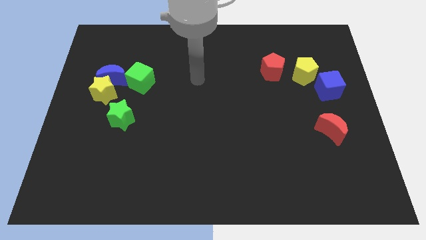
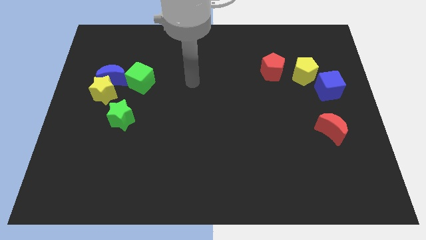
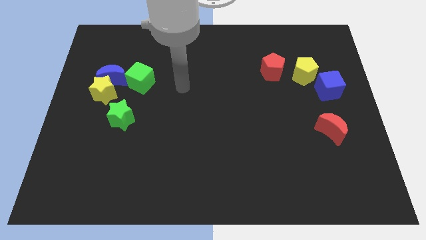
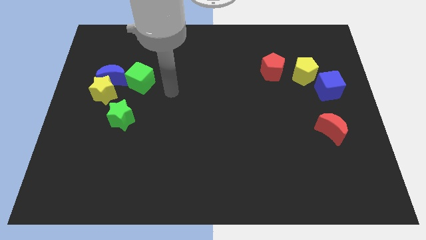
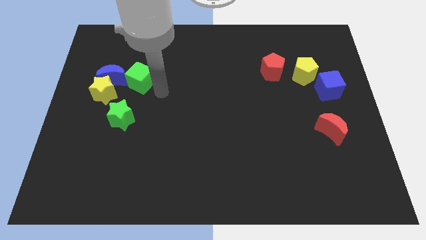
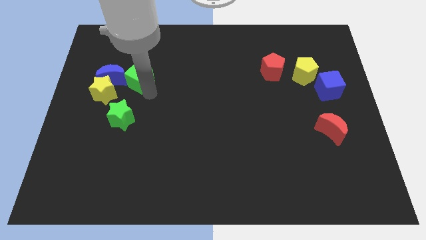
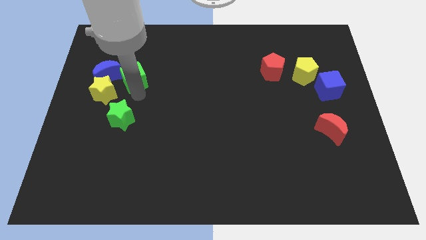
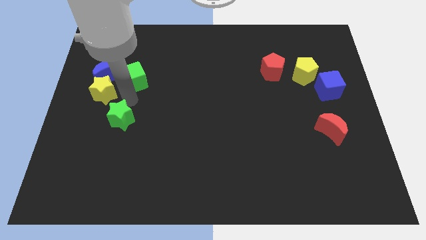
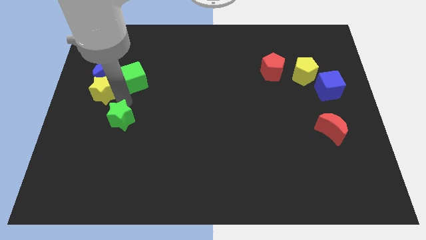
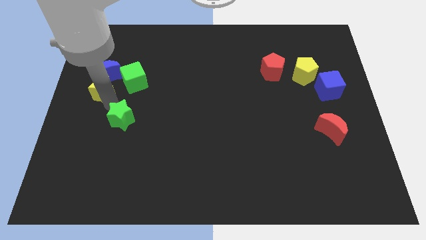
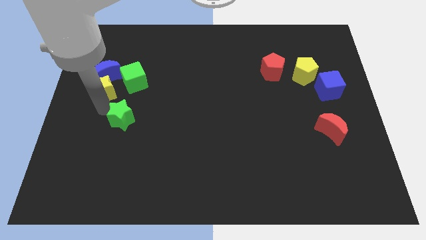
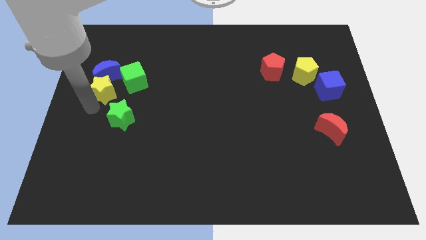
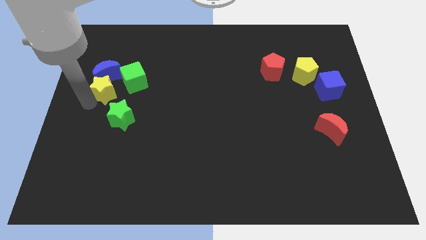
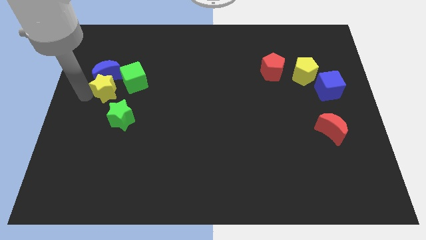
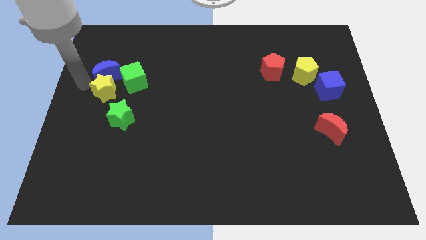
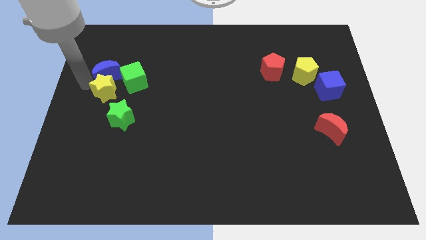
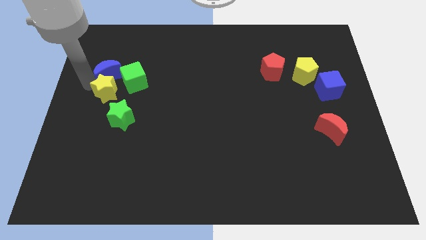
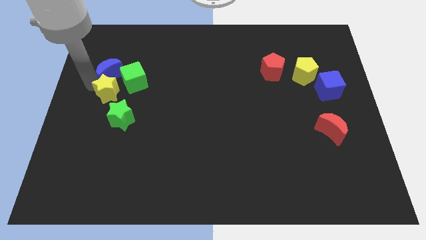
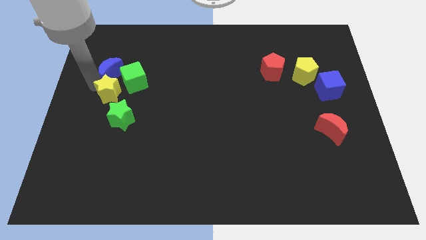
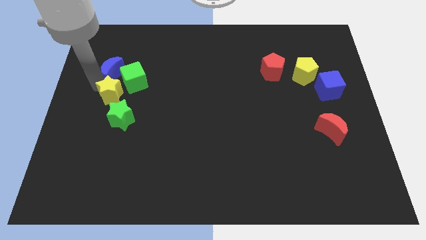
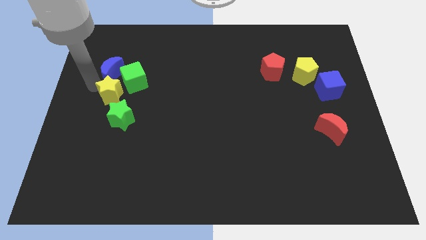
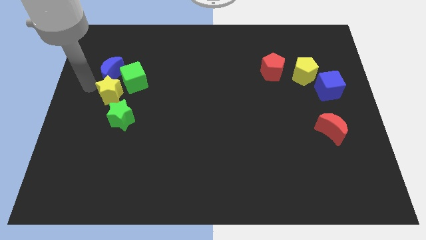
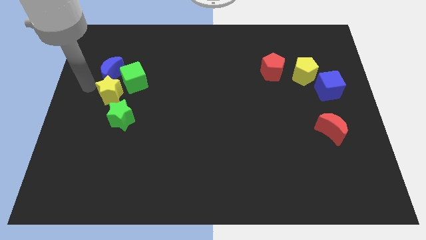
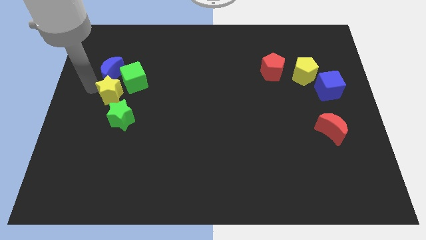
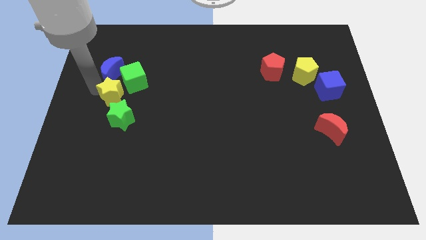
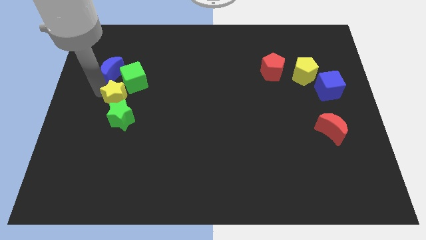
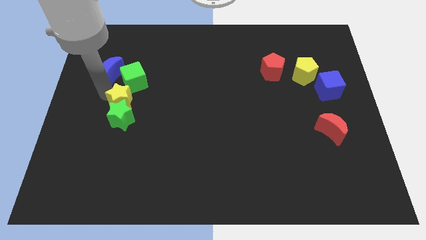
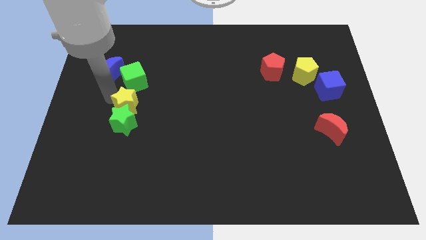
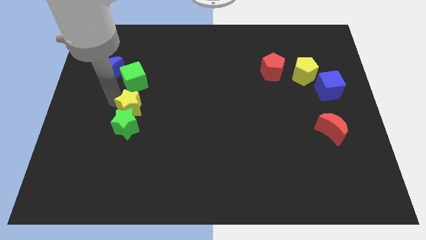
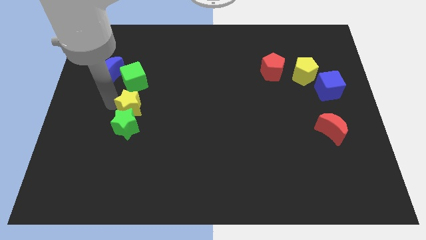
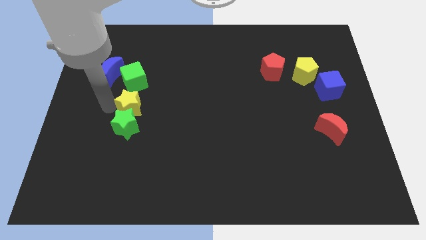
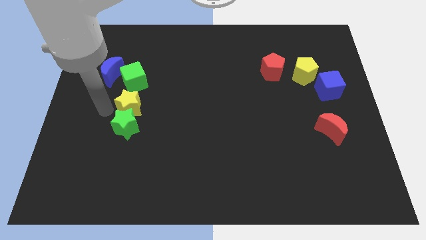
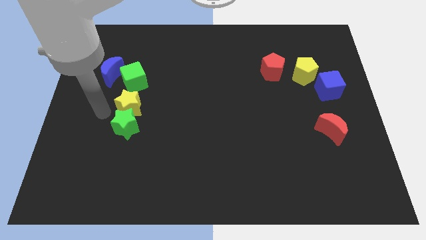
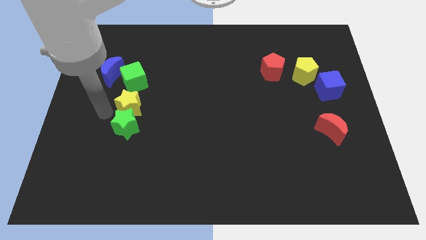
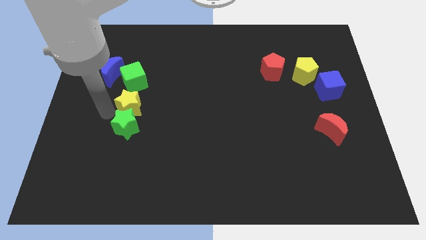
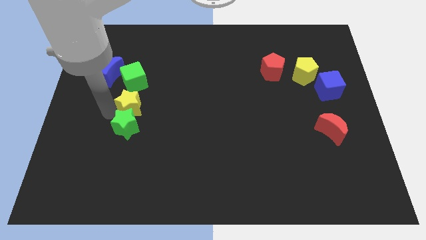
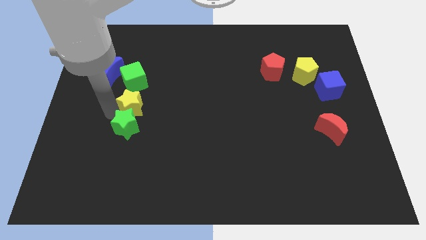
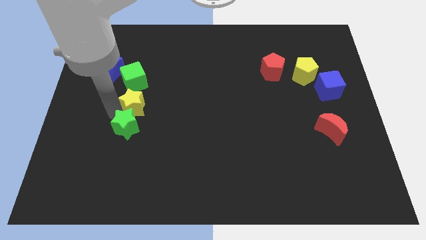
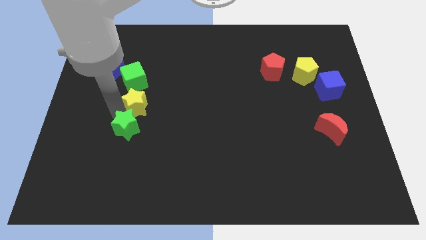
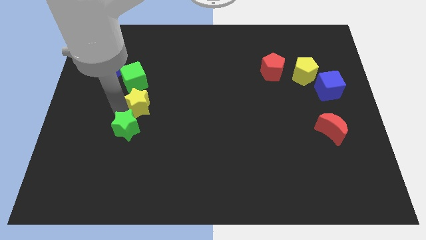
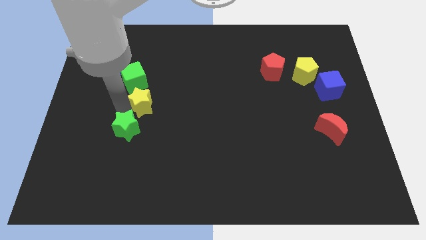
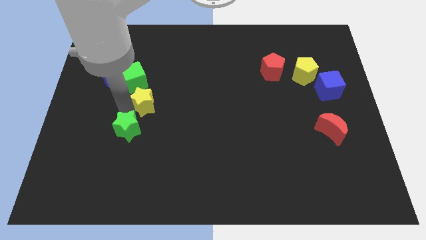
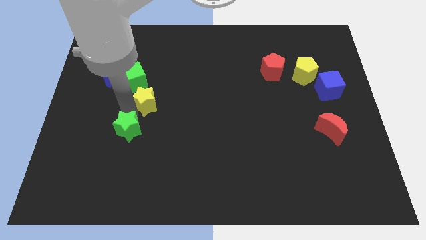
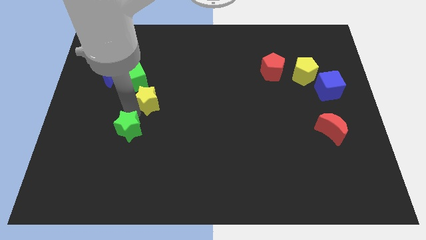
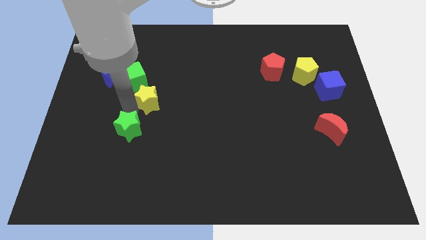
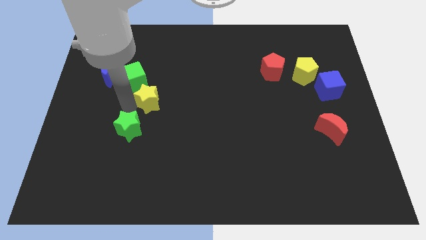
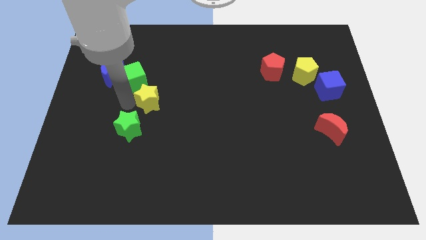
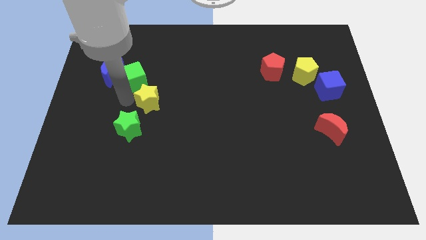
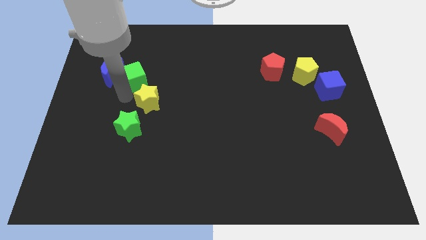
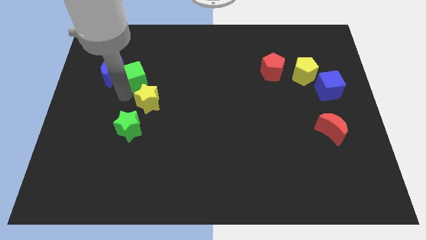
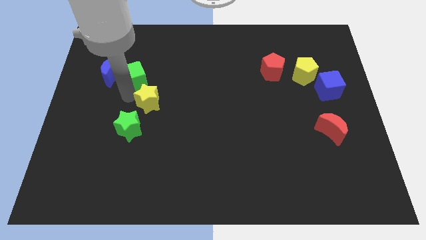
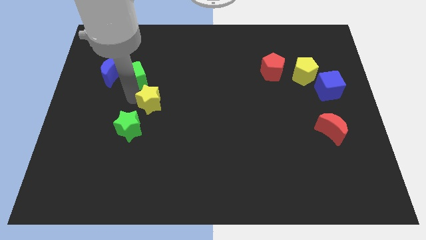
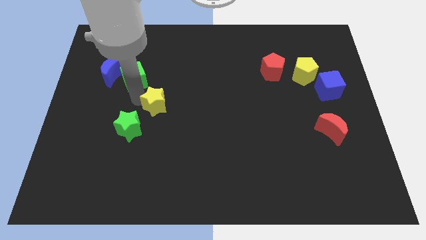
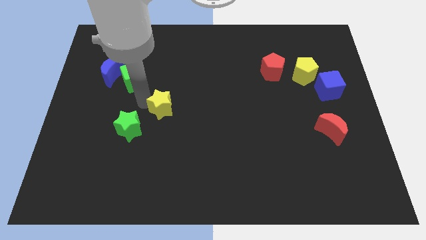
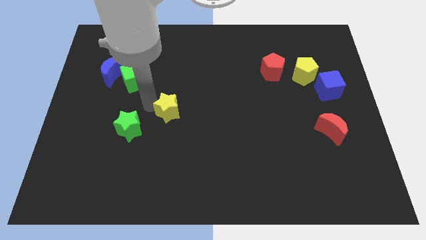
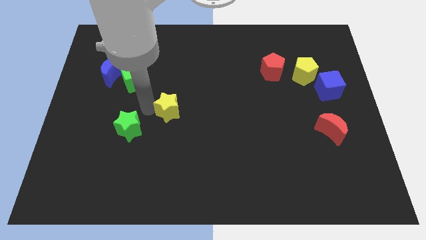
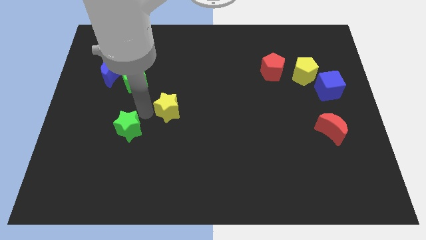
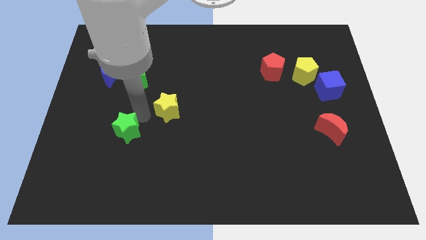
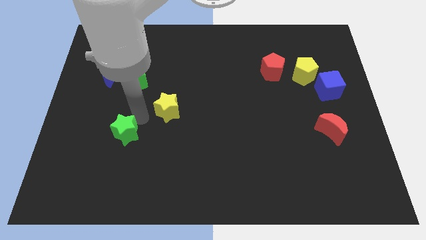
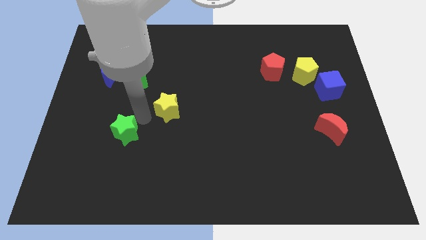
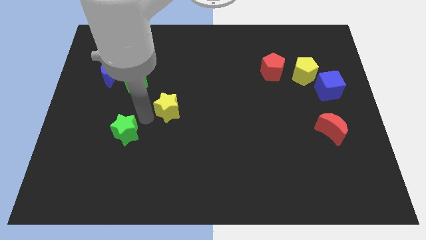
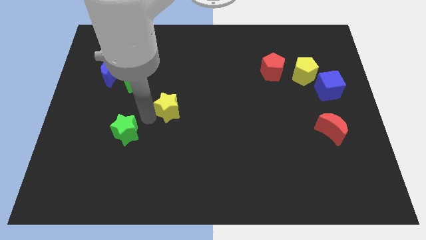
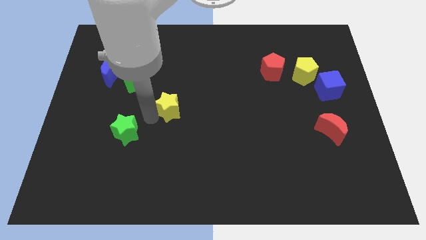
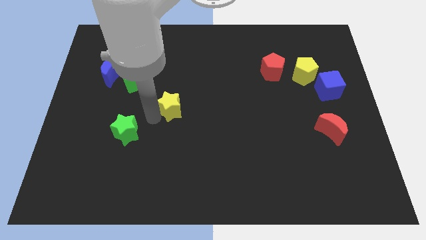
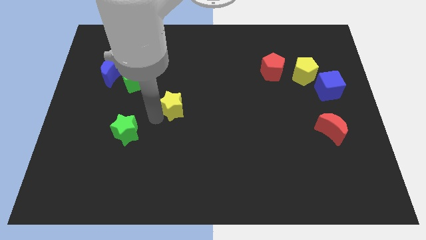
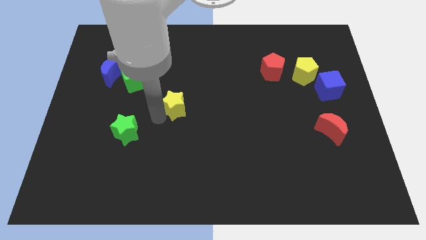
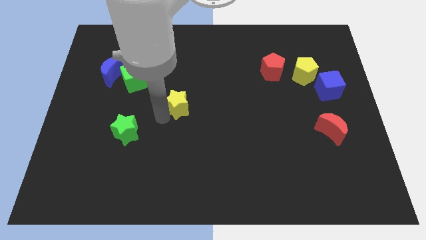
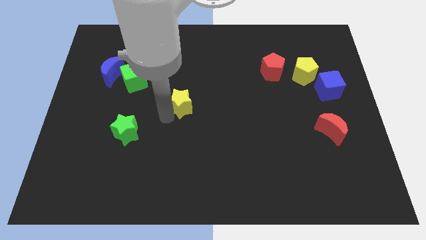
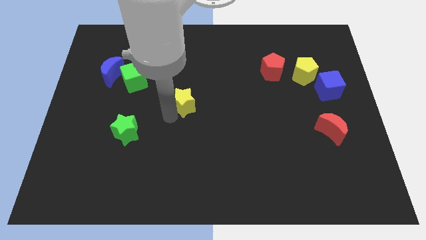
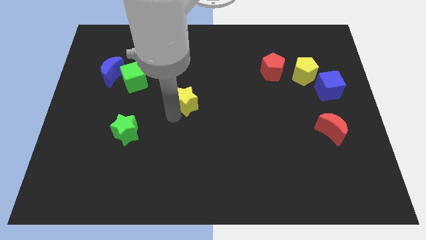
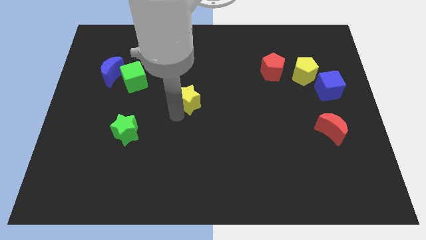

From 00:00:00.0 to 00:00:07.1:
slide the yellow star right

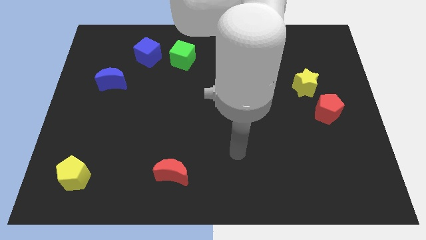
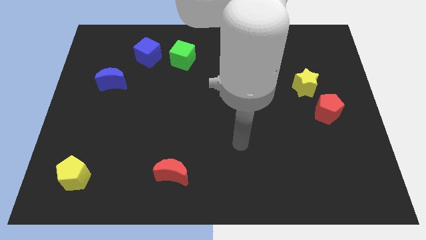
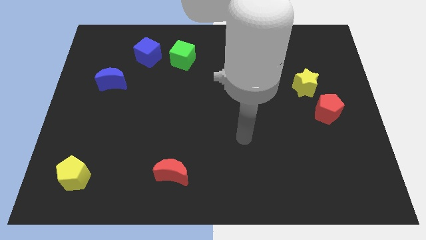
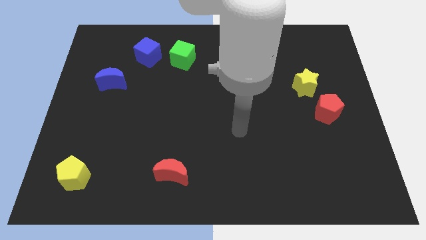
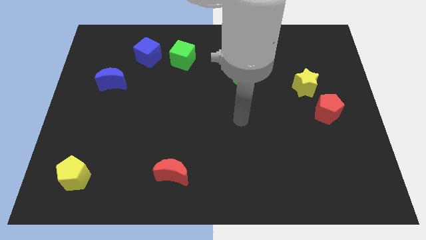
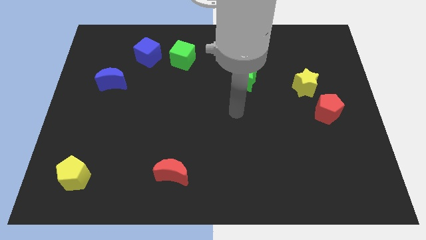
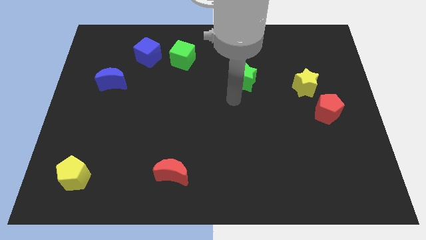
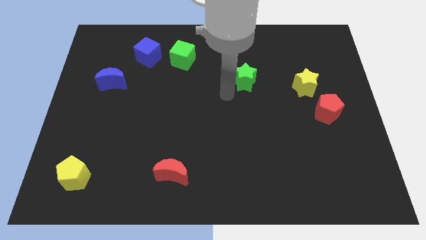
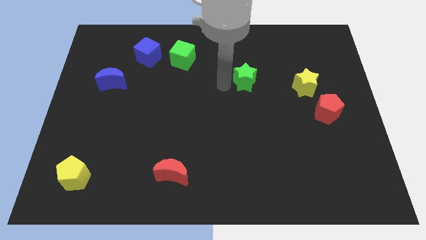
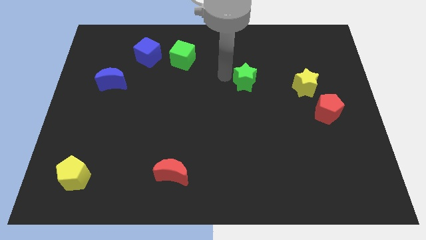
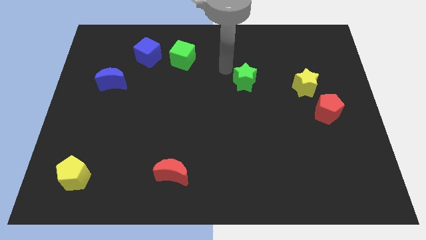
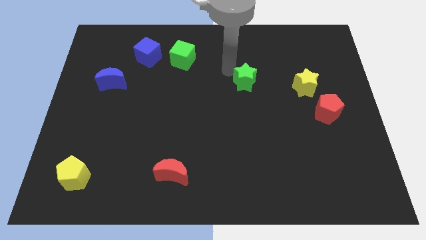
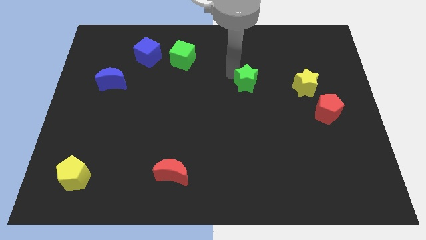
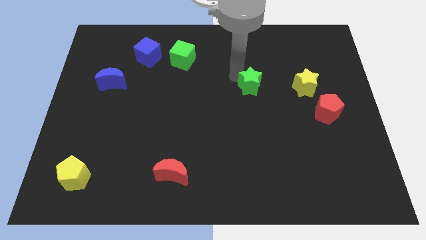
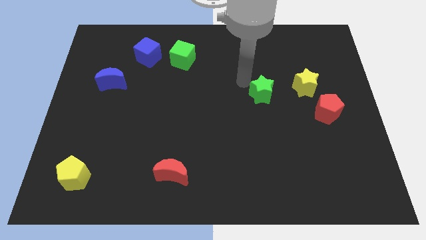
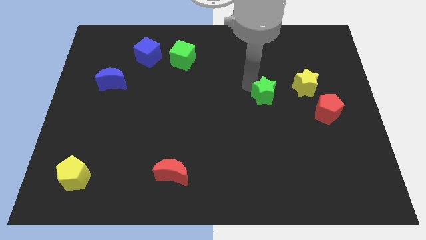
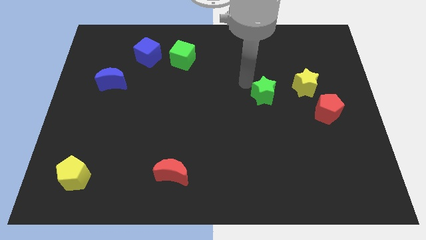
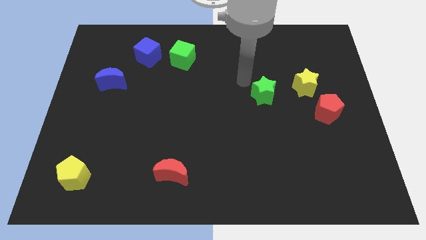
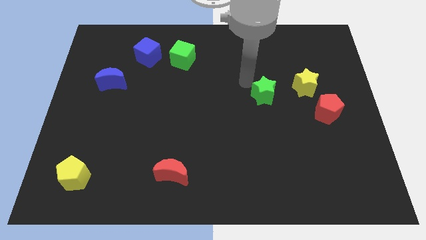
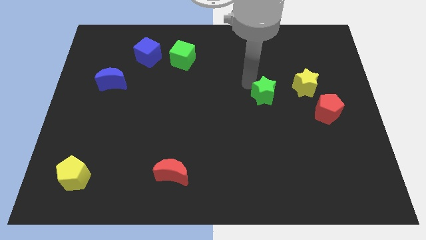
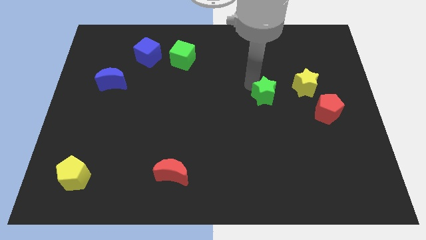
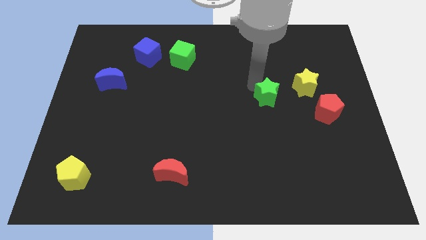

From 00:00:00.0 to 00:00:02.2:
slightly push the green star down and to the right
